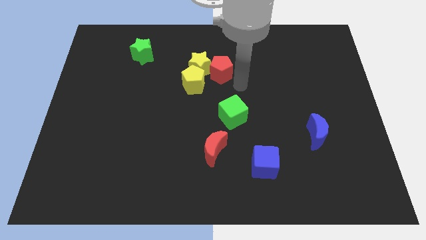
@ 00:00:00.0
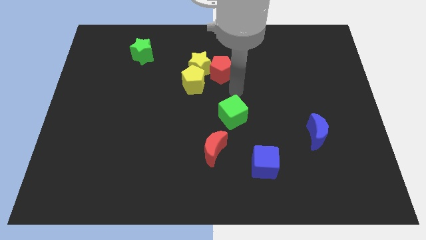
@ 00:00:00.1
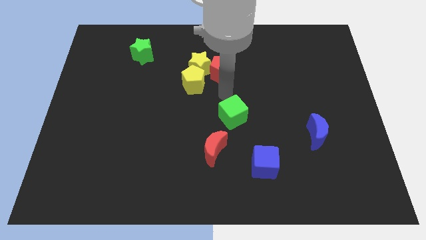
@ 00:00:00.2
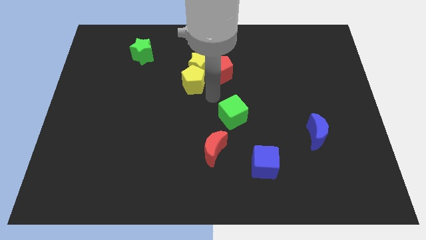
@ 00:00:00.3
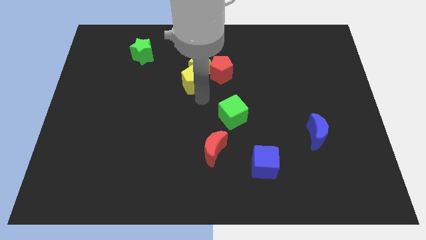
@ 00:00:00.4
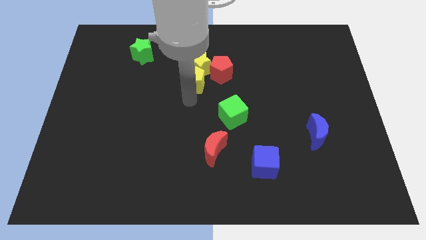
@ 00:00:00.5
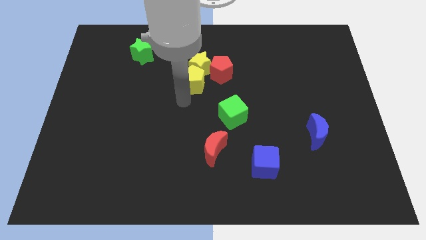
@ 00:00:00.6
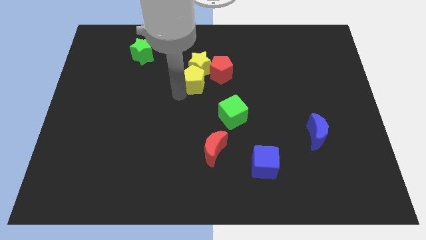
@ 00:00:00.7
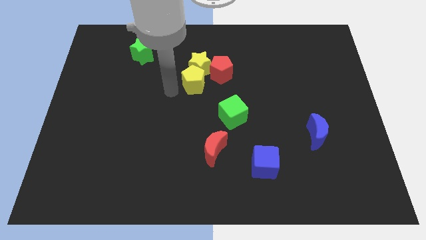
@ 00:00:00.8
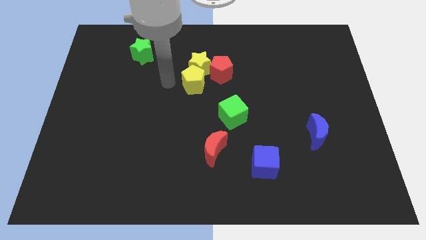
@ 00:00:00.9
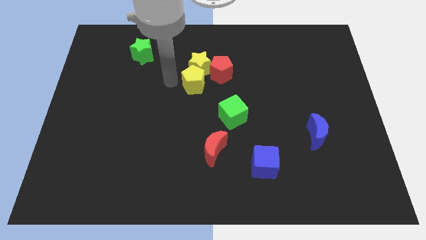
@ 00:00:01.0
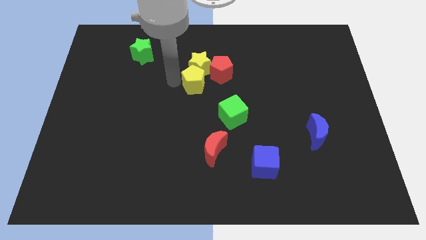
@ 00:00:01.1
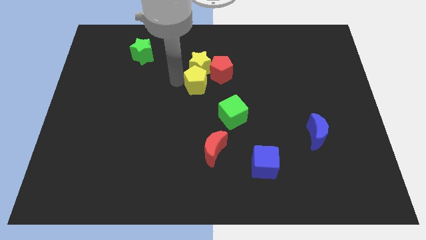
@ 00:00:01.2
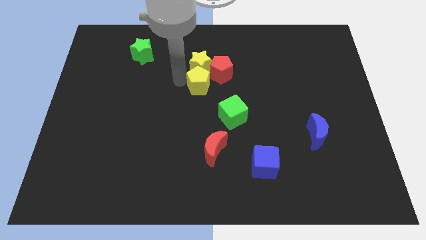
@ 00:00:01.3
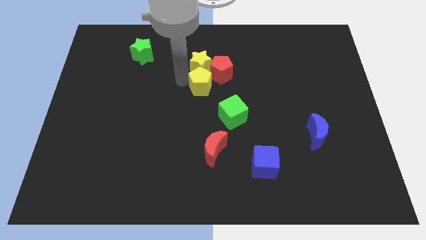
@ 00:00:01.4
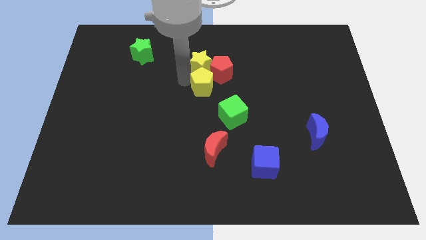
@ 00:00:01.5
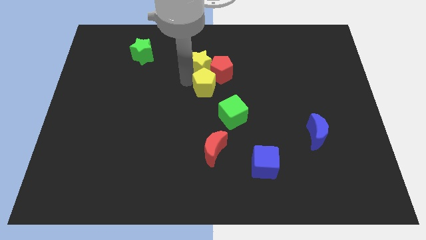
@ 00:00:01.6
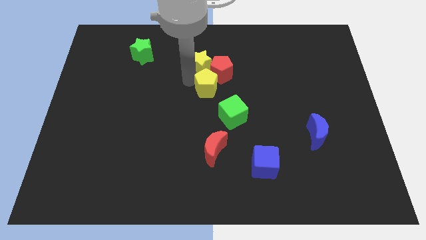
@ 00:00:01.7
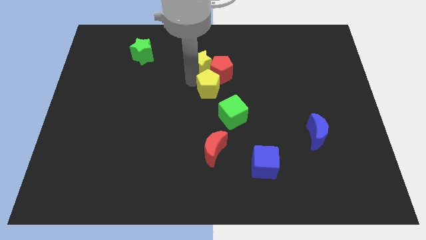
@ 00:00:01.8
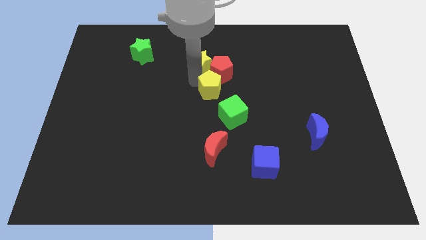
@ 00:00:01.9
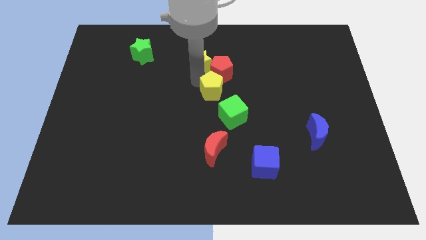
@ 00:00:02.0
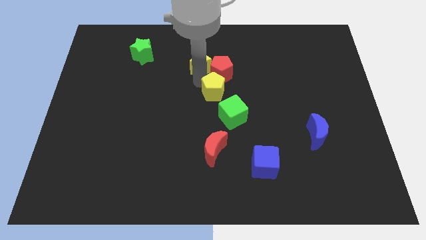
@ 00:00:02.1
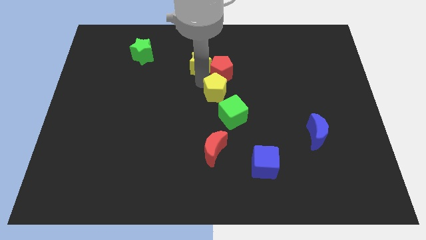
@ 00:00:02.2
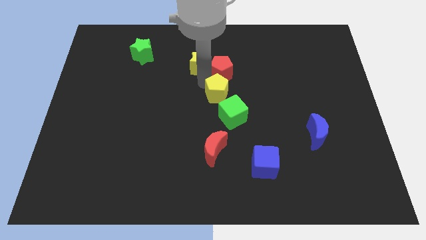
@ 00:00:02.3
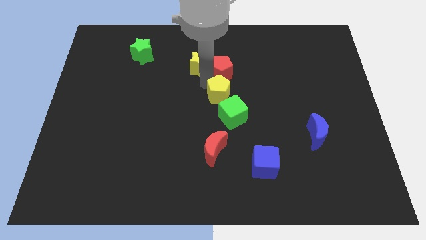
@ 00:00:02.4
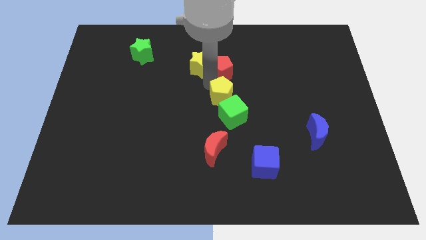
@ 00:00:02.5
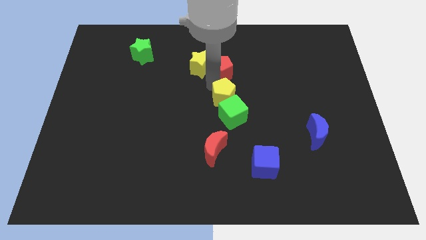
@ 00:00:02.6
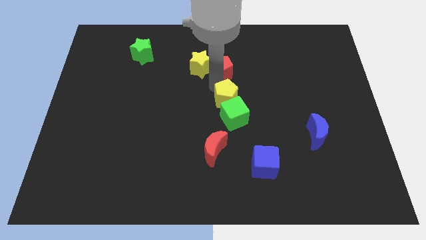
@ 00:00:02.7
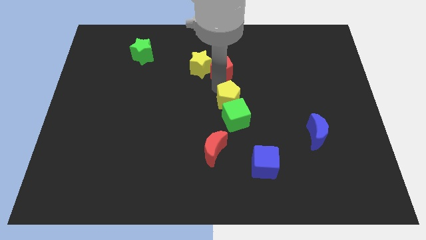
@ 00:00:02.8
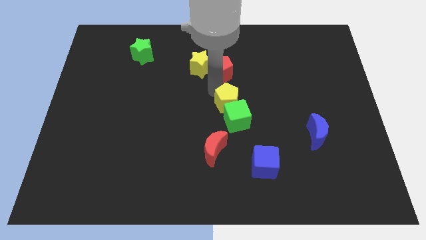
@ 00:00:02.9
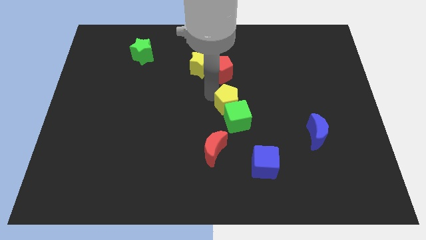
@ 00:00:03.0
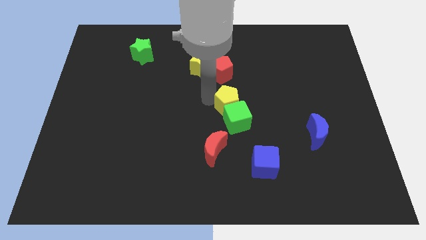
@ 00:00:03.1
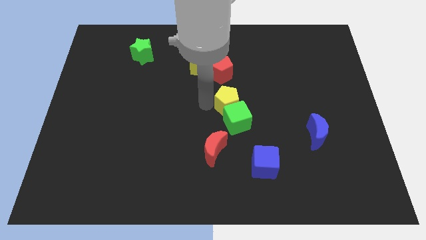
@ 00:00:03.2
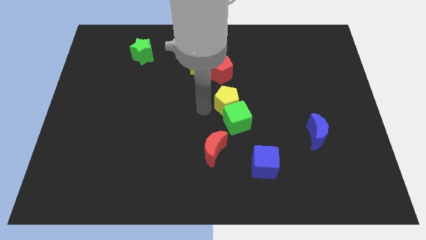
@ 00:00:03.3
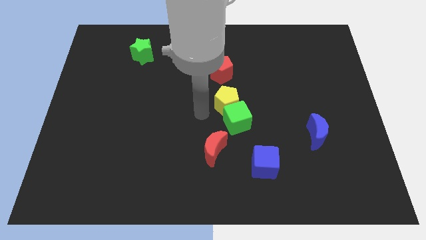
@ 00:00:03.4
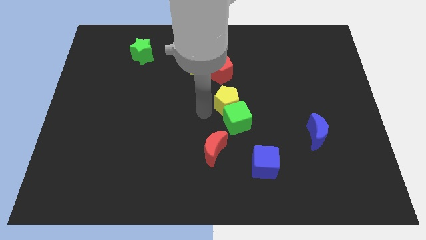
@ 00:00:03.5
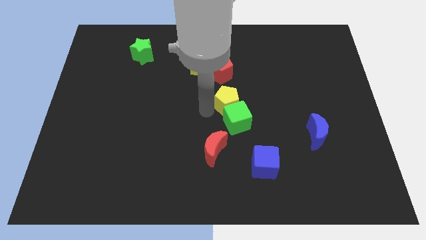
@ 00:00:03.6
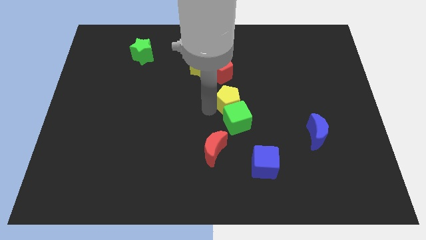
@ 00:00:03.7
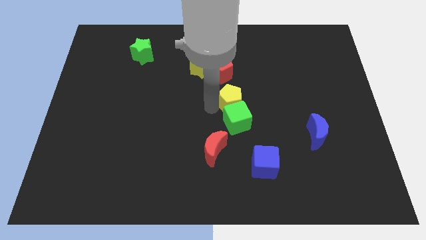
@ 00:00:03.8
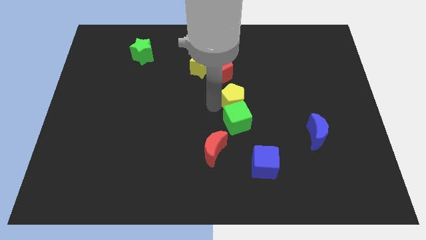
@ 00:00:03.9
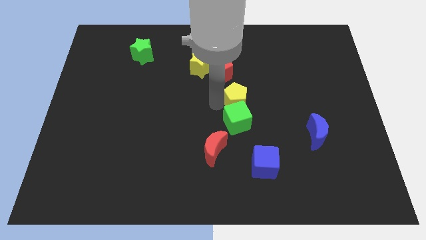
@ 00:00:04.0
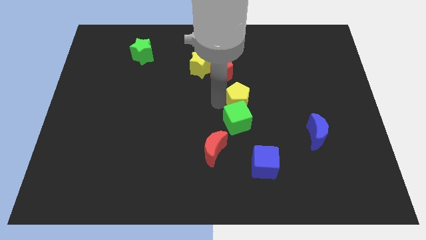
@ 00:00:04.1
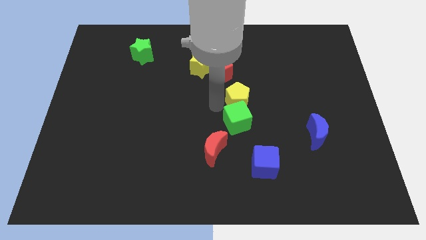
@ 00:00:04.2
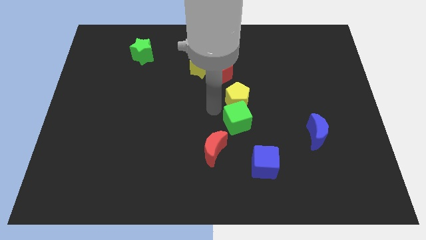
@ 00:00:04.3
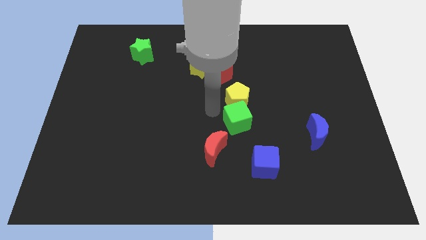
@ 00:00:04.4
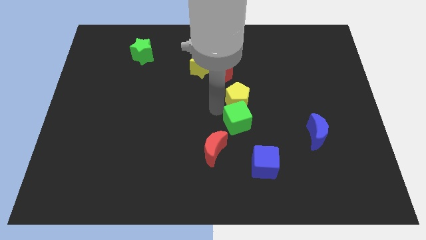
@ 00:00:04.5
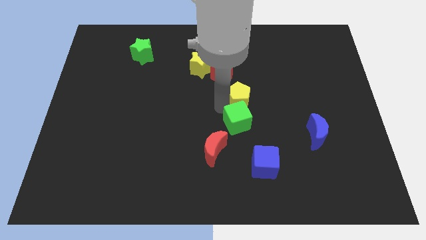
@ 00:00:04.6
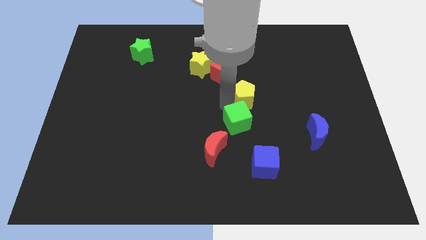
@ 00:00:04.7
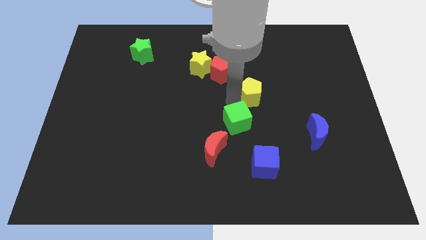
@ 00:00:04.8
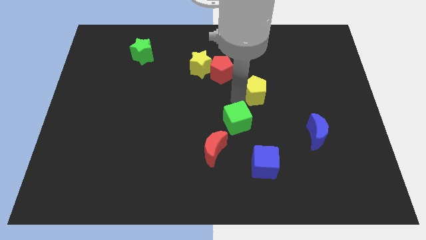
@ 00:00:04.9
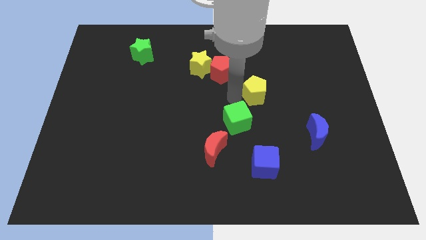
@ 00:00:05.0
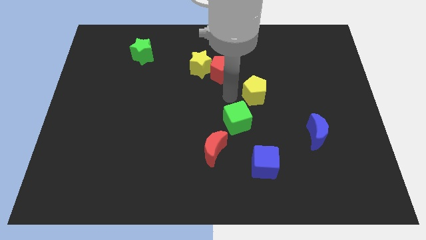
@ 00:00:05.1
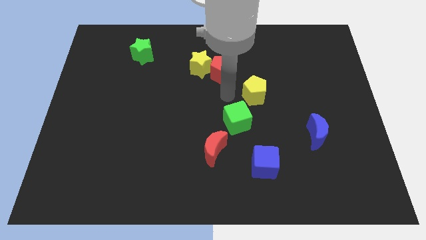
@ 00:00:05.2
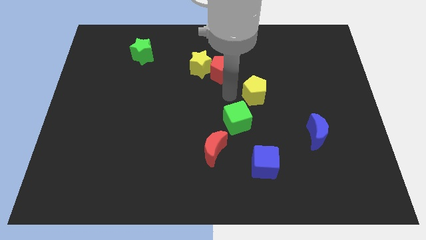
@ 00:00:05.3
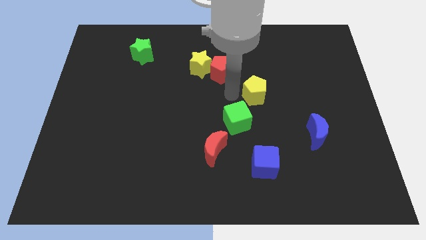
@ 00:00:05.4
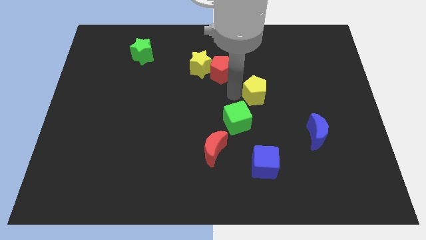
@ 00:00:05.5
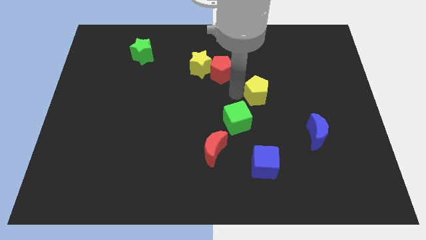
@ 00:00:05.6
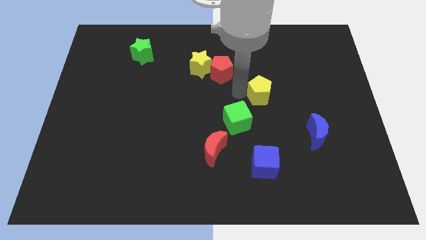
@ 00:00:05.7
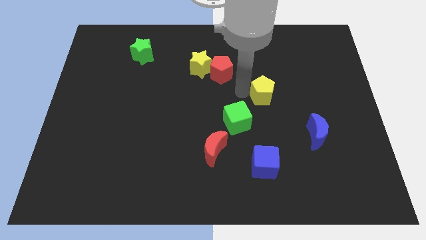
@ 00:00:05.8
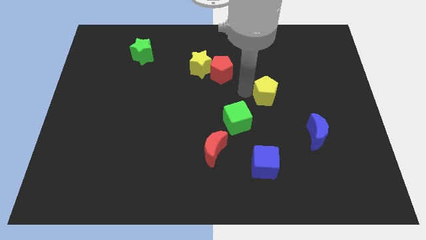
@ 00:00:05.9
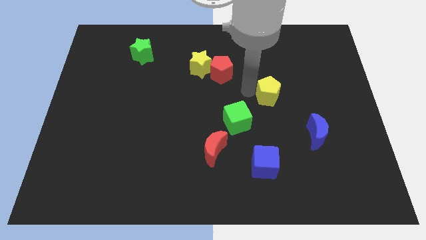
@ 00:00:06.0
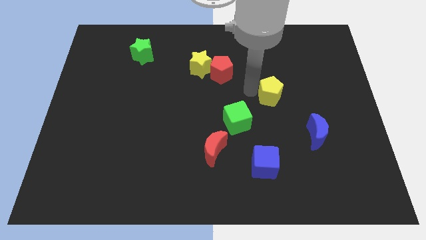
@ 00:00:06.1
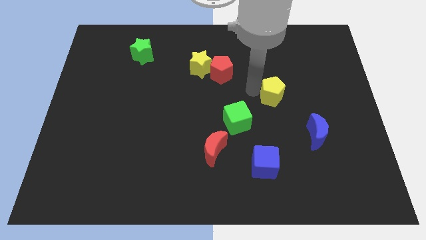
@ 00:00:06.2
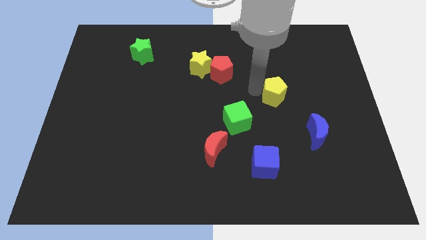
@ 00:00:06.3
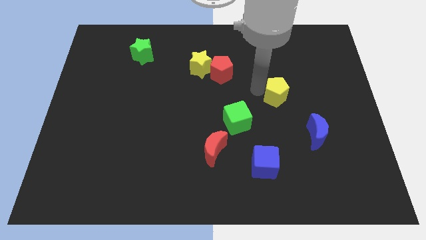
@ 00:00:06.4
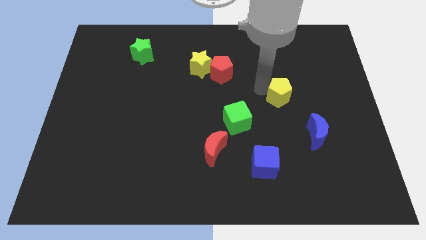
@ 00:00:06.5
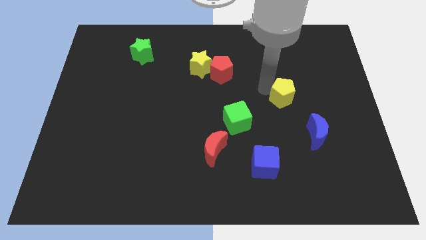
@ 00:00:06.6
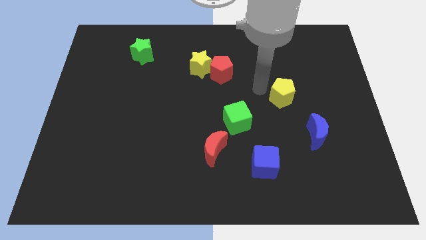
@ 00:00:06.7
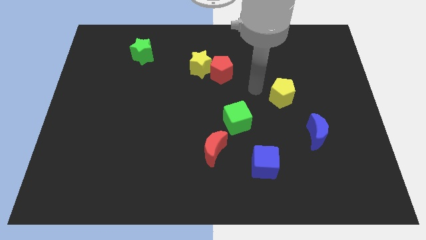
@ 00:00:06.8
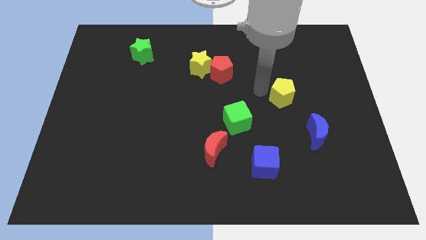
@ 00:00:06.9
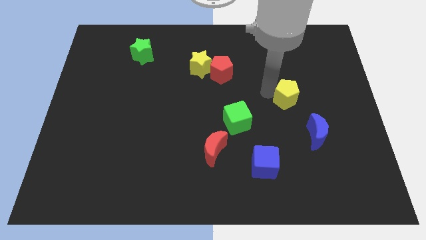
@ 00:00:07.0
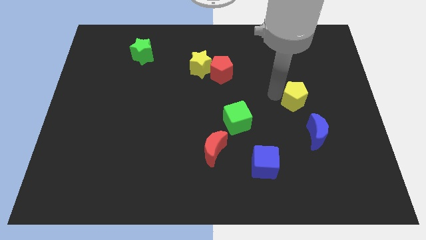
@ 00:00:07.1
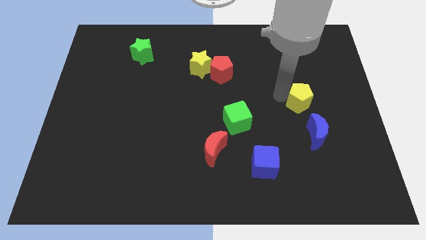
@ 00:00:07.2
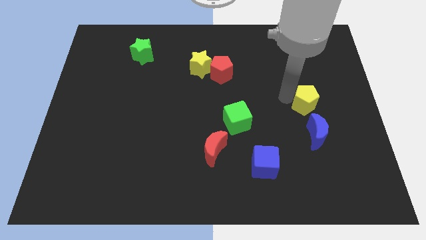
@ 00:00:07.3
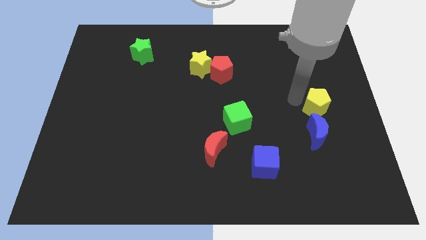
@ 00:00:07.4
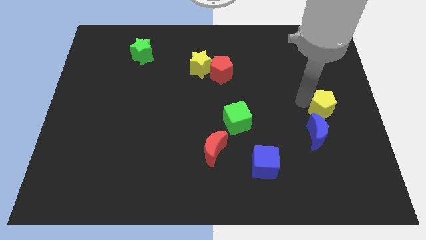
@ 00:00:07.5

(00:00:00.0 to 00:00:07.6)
slide the yellow pentagon to the top right of the blue moon
